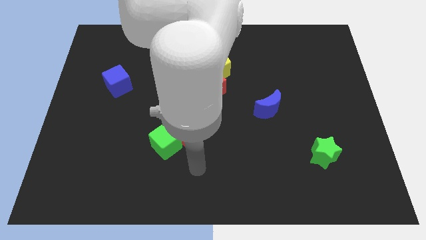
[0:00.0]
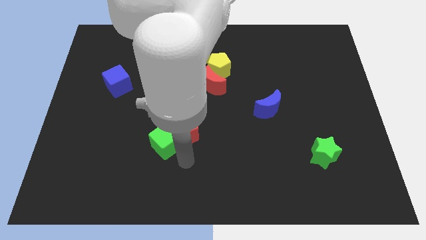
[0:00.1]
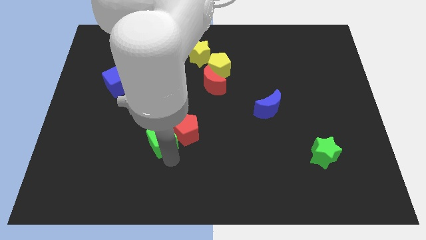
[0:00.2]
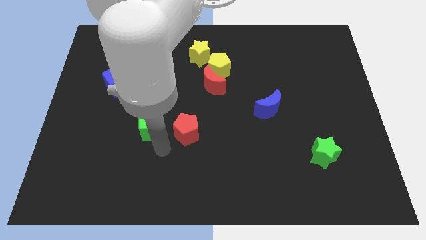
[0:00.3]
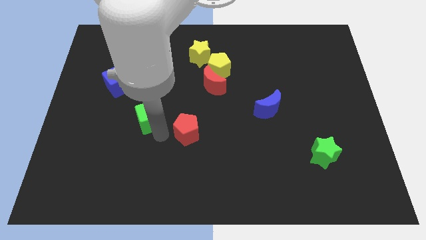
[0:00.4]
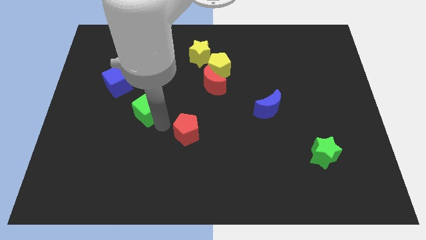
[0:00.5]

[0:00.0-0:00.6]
move the red pentagon away from the green cube

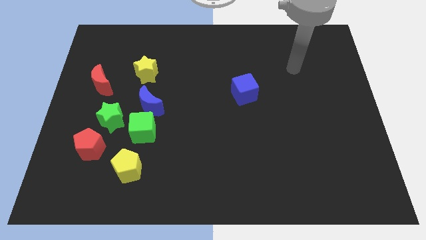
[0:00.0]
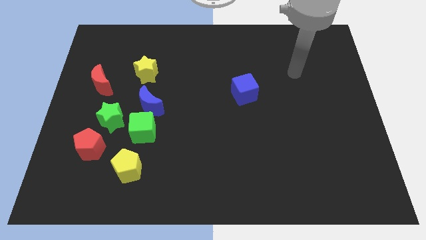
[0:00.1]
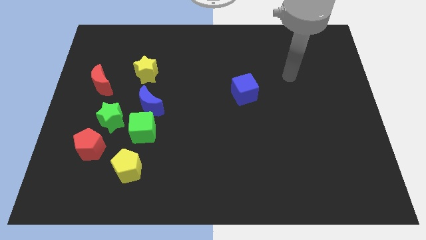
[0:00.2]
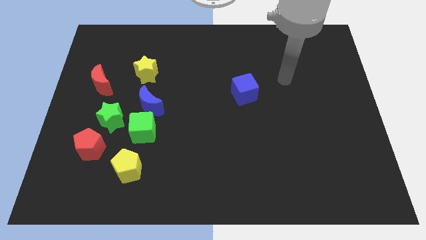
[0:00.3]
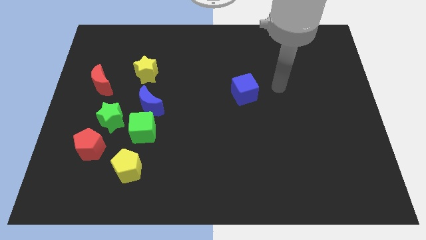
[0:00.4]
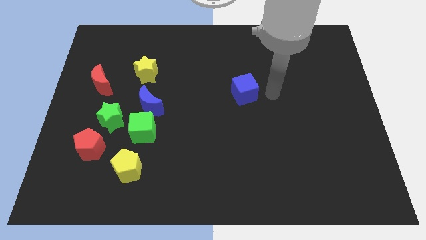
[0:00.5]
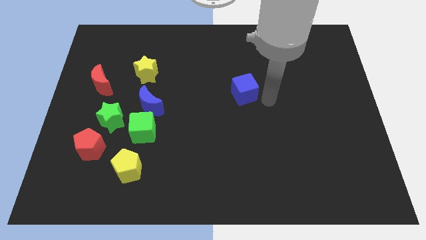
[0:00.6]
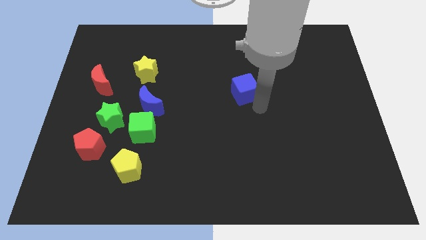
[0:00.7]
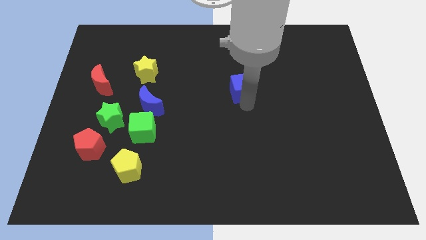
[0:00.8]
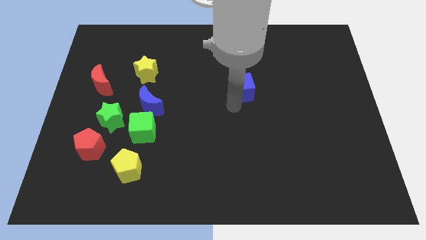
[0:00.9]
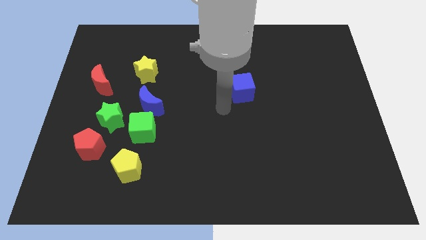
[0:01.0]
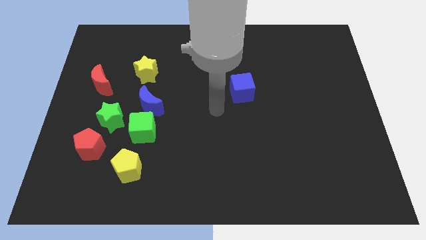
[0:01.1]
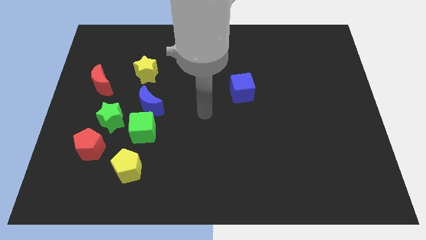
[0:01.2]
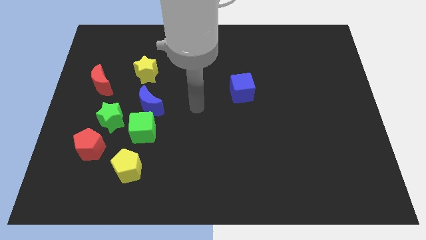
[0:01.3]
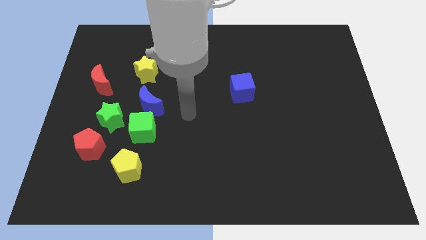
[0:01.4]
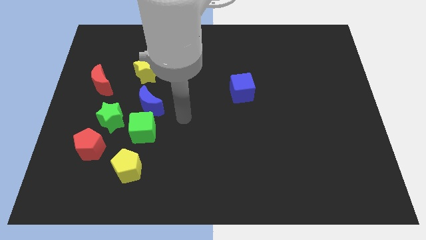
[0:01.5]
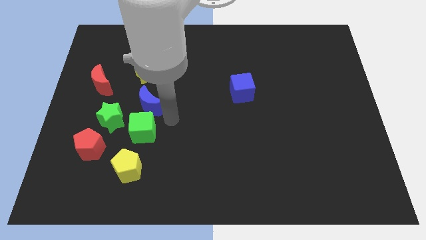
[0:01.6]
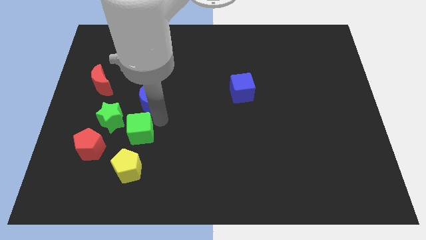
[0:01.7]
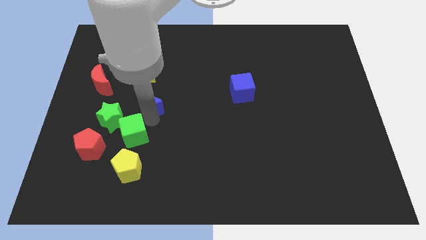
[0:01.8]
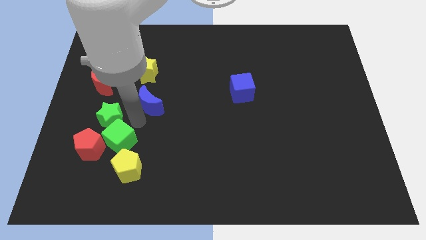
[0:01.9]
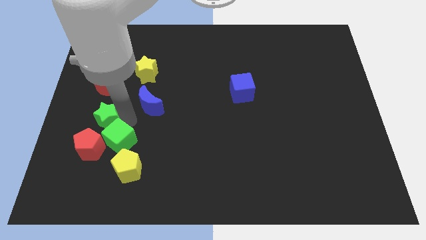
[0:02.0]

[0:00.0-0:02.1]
move the blue moon away from the green cube and green star

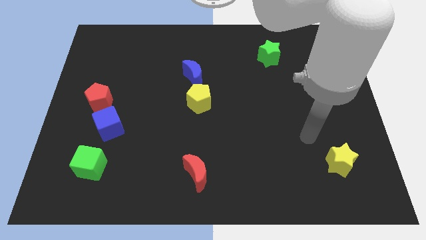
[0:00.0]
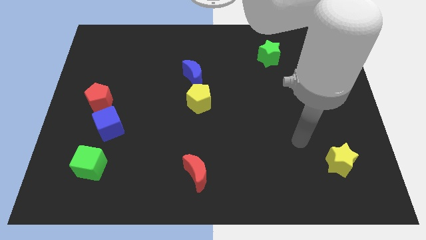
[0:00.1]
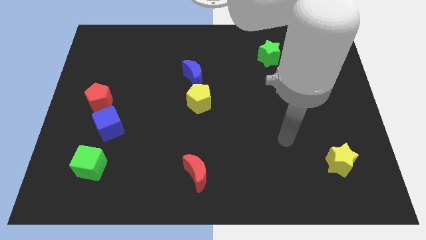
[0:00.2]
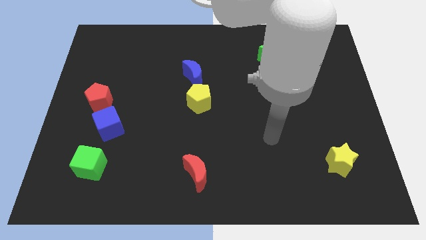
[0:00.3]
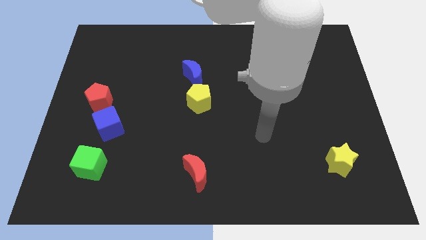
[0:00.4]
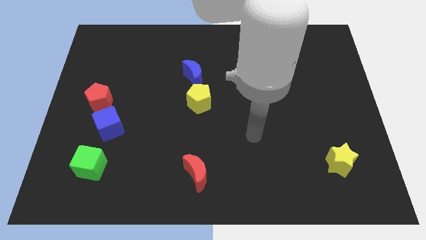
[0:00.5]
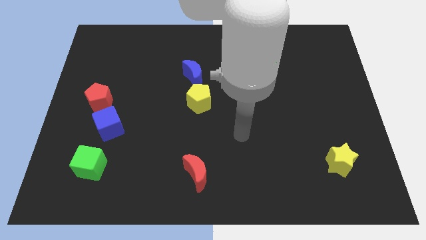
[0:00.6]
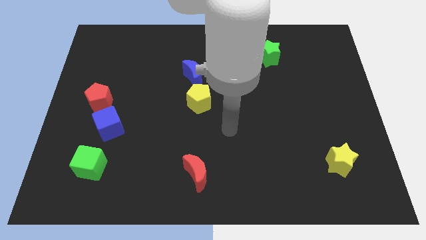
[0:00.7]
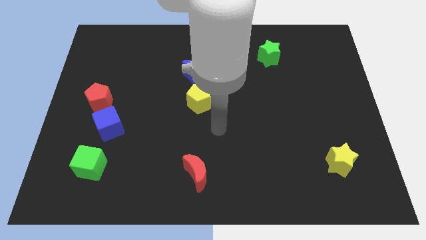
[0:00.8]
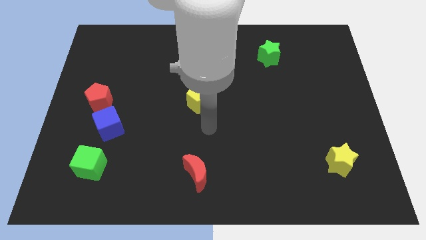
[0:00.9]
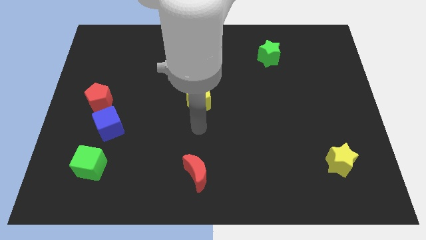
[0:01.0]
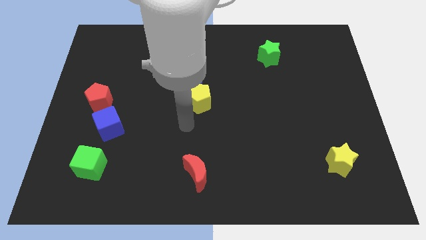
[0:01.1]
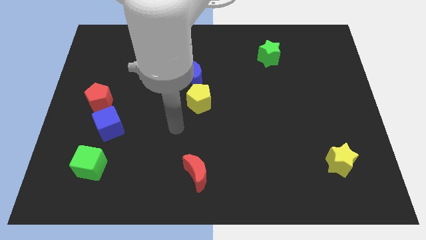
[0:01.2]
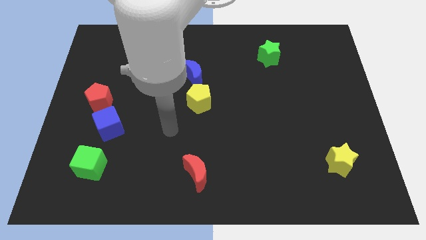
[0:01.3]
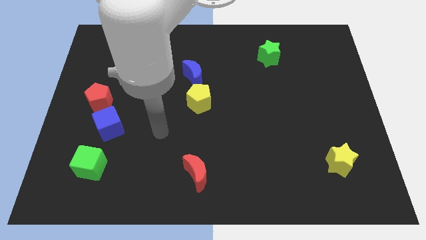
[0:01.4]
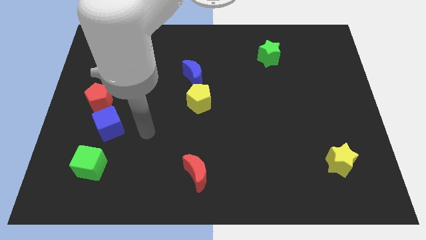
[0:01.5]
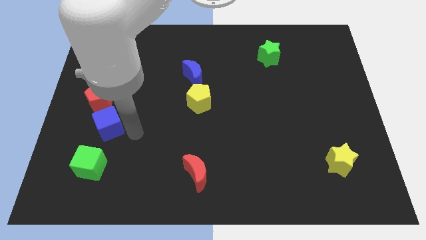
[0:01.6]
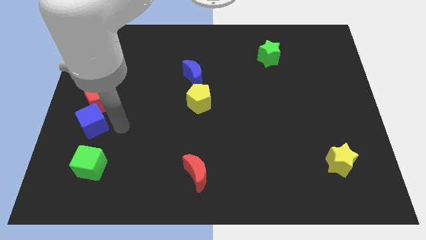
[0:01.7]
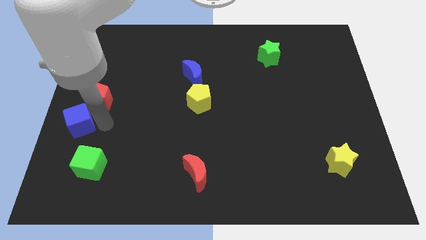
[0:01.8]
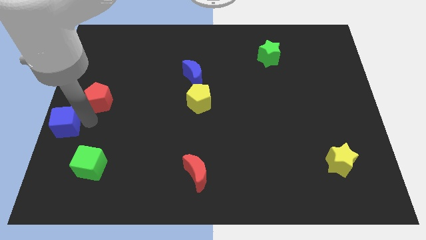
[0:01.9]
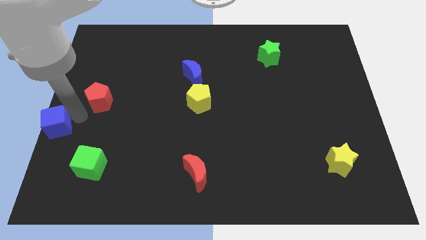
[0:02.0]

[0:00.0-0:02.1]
pull the red pentagon apart from the blue cube

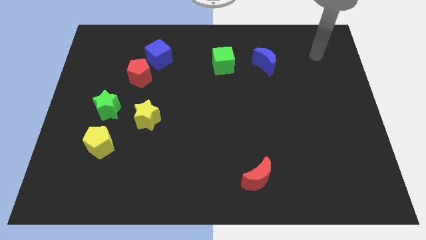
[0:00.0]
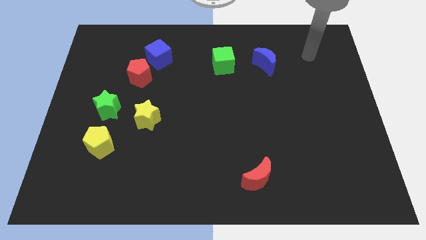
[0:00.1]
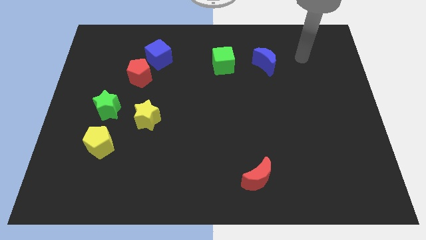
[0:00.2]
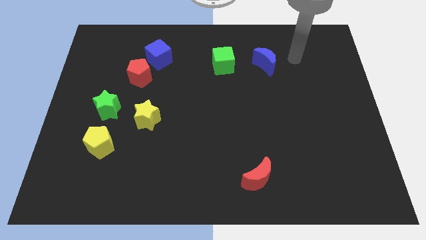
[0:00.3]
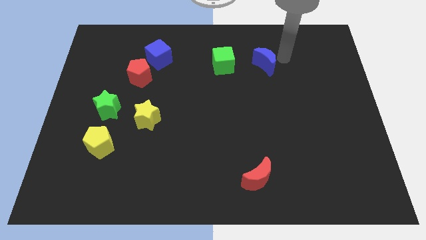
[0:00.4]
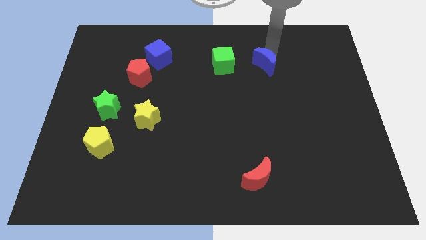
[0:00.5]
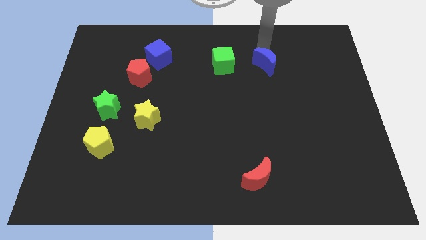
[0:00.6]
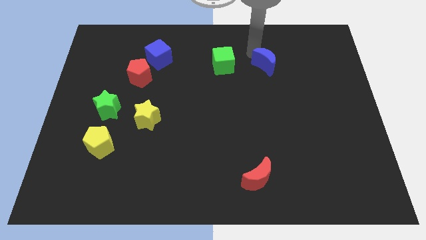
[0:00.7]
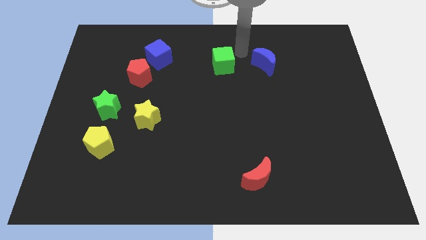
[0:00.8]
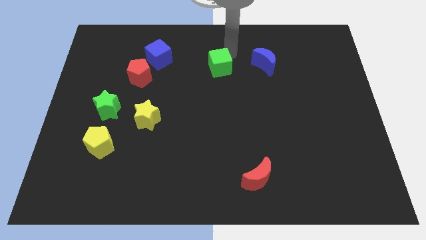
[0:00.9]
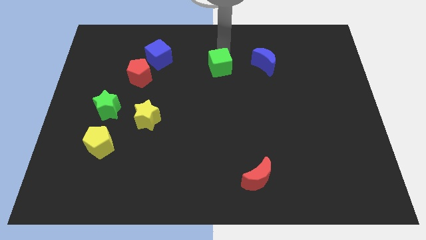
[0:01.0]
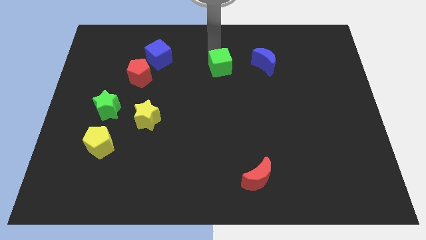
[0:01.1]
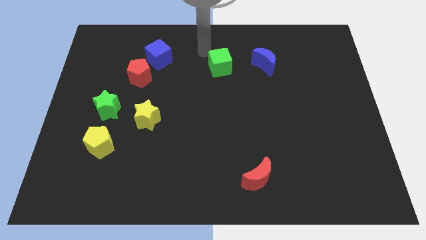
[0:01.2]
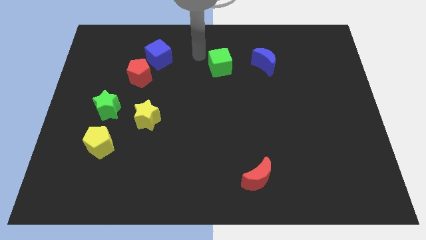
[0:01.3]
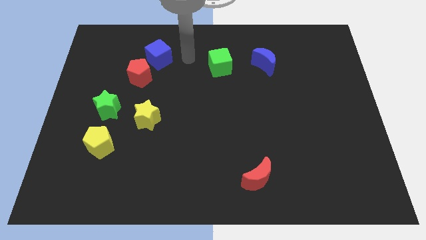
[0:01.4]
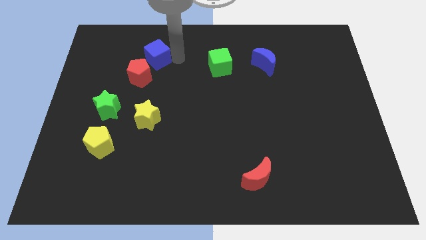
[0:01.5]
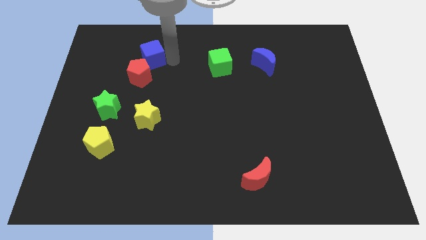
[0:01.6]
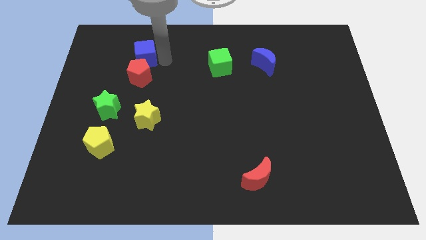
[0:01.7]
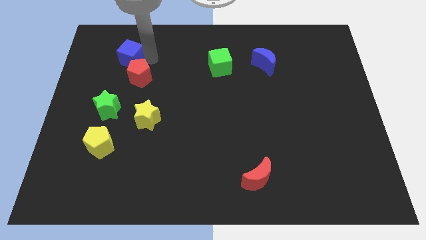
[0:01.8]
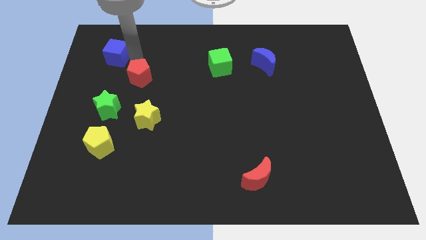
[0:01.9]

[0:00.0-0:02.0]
separate the red pentagon from the blue cube

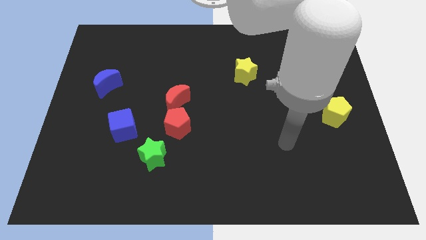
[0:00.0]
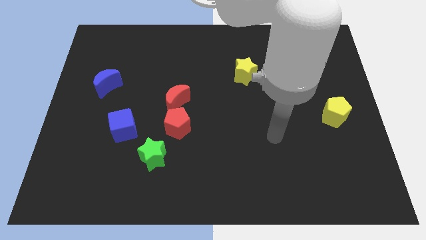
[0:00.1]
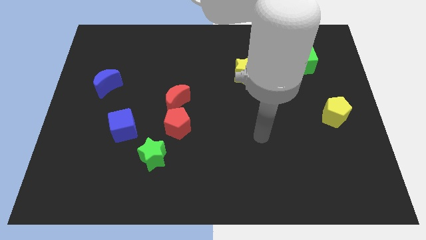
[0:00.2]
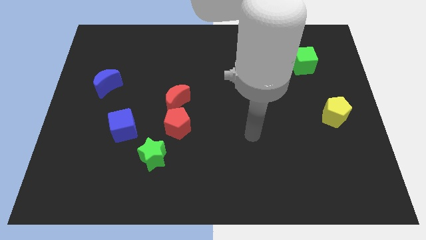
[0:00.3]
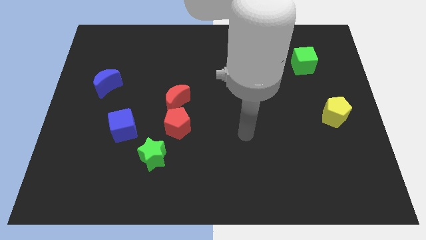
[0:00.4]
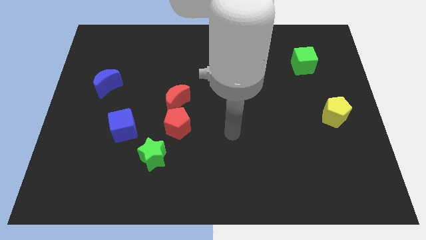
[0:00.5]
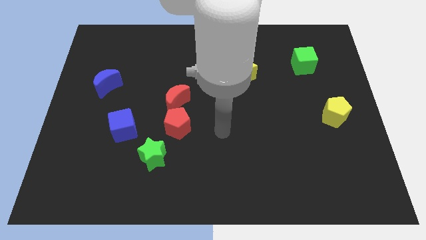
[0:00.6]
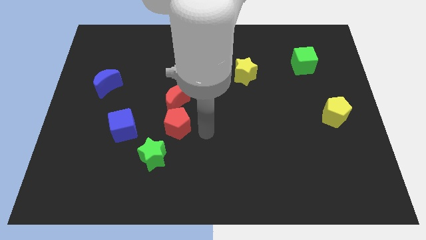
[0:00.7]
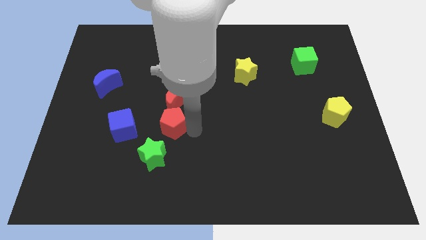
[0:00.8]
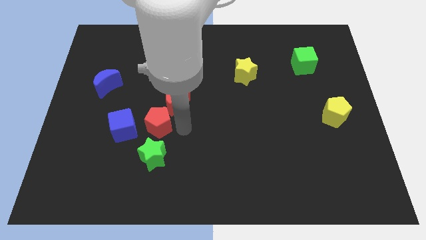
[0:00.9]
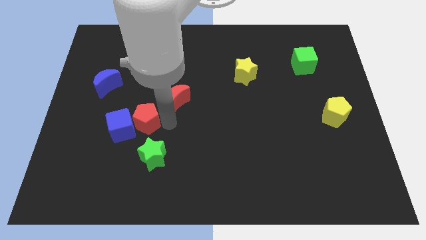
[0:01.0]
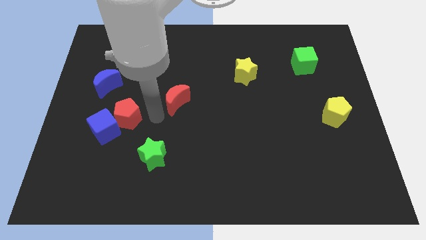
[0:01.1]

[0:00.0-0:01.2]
move the red moon away from the red pentagon

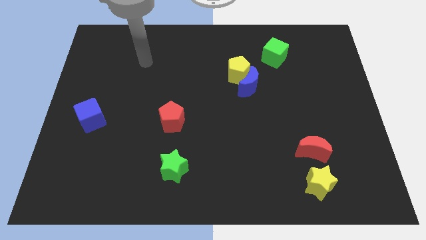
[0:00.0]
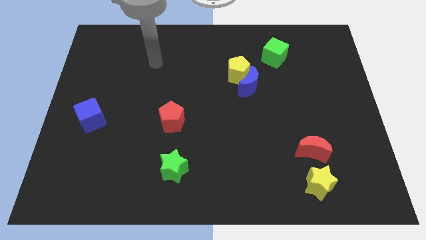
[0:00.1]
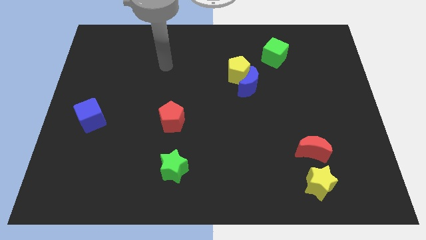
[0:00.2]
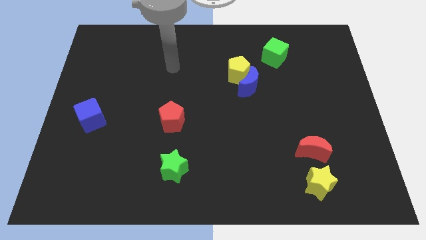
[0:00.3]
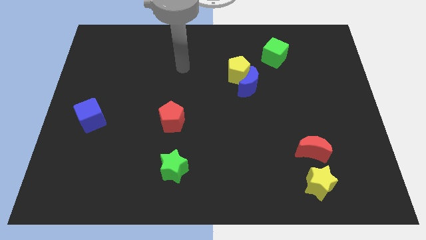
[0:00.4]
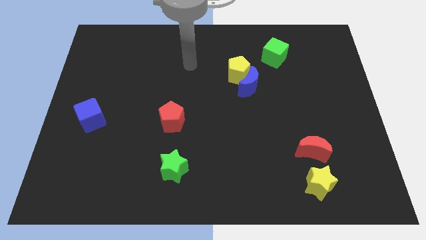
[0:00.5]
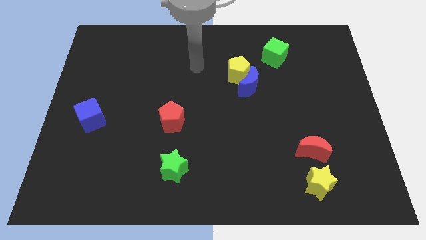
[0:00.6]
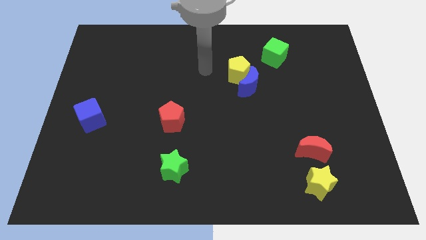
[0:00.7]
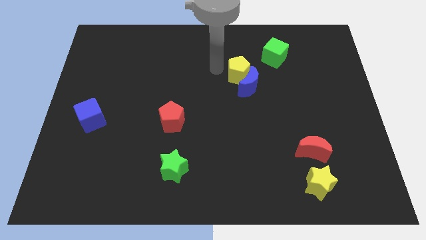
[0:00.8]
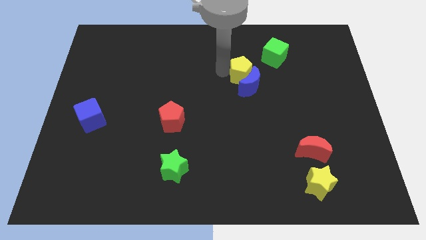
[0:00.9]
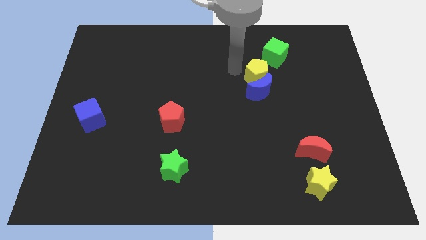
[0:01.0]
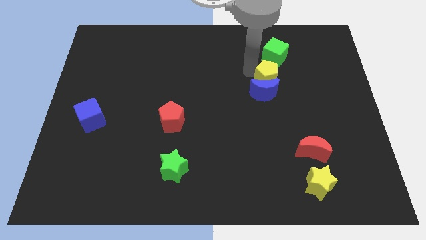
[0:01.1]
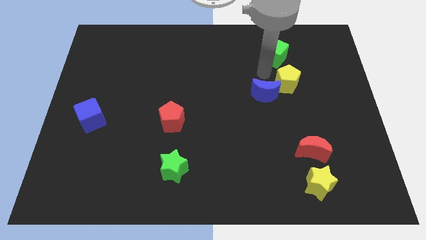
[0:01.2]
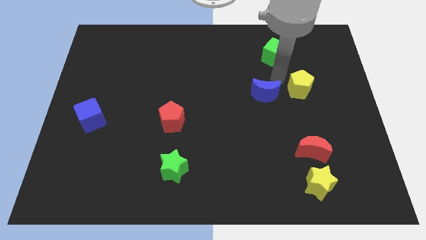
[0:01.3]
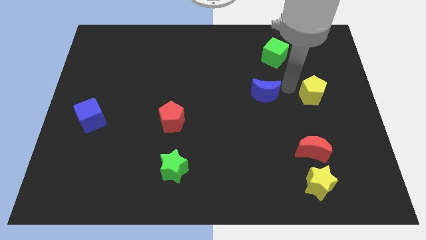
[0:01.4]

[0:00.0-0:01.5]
move the blue moon away from the yellow pentagon
